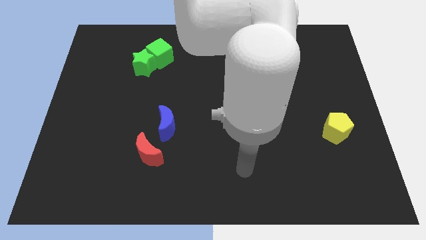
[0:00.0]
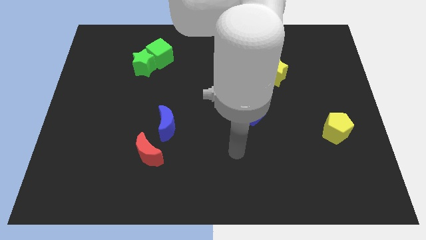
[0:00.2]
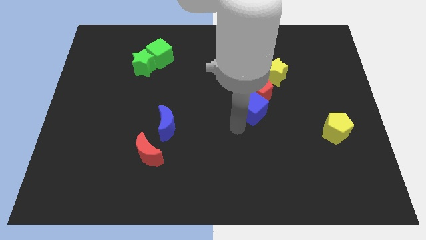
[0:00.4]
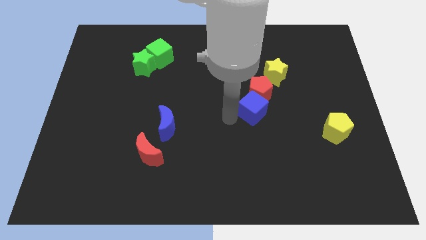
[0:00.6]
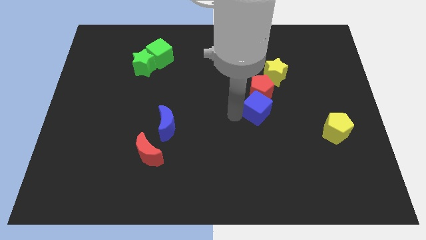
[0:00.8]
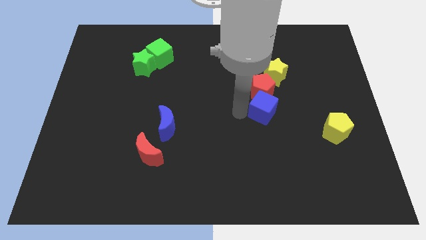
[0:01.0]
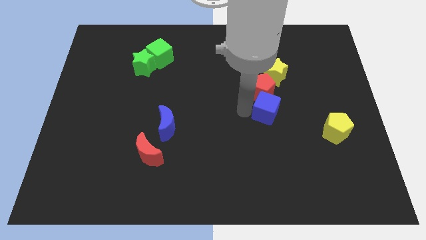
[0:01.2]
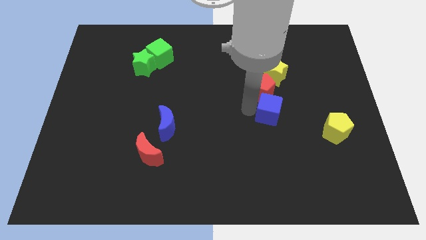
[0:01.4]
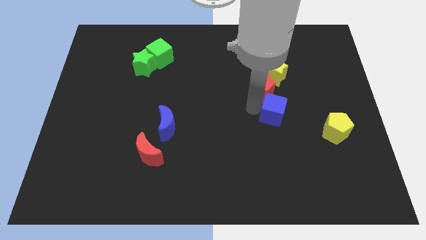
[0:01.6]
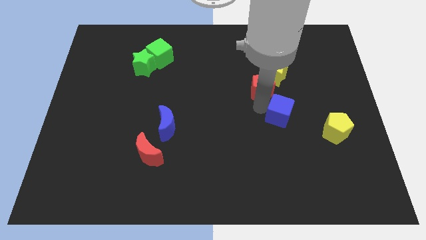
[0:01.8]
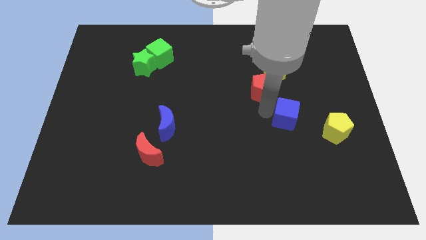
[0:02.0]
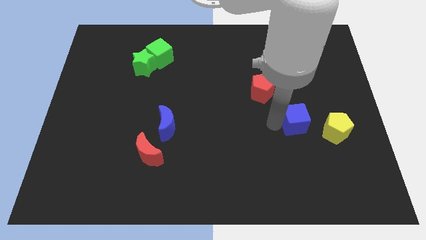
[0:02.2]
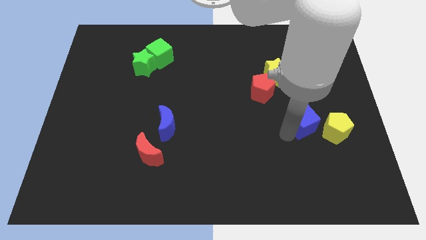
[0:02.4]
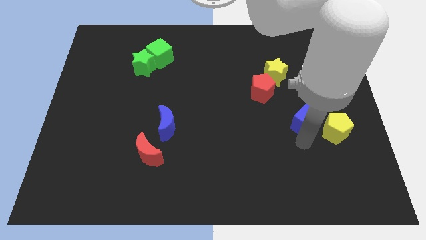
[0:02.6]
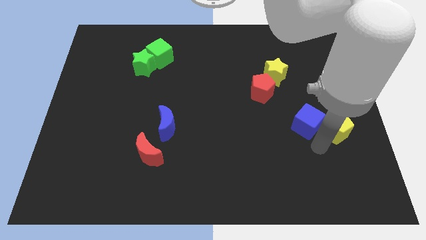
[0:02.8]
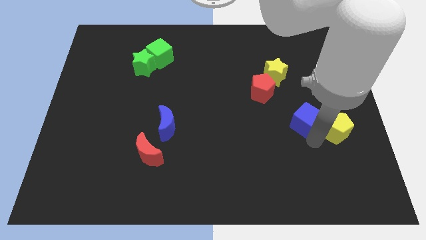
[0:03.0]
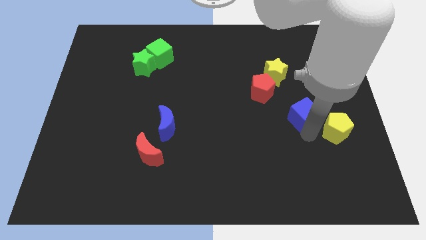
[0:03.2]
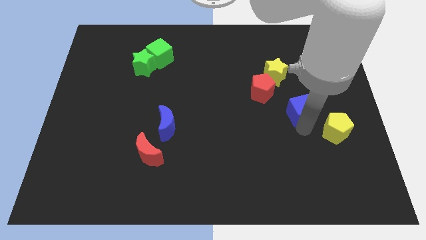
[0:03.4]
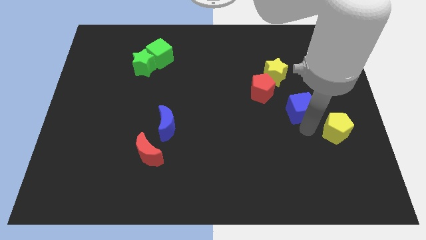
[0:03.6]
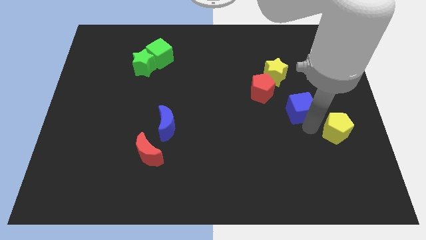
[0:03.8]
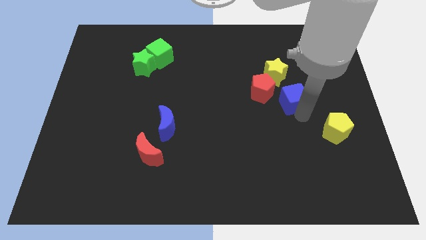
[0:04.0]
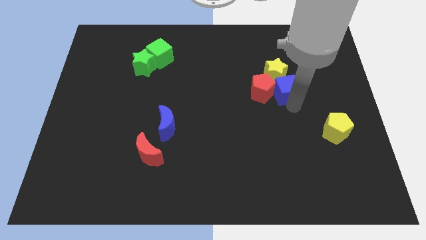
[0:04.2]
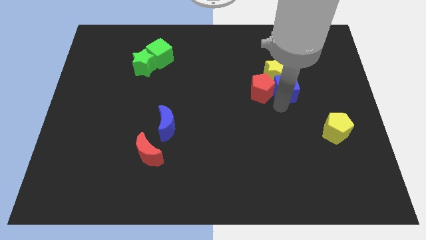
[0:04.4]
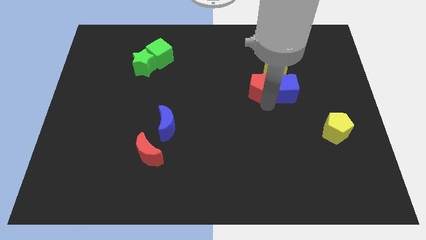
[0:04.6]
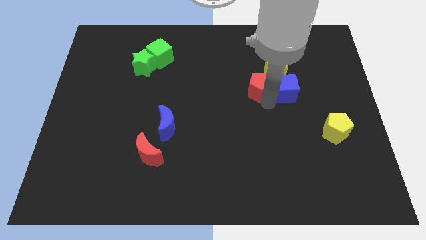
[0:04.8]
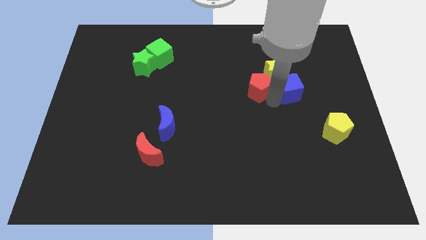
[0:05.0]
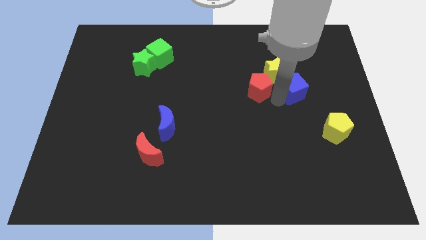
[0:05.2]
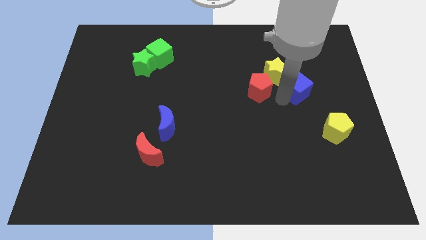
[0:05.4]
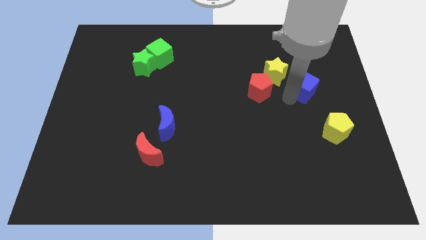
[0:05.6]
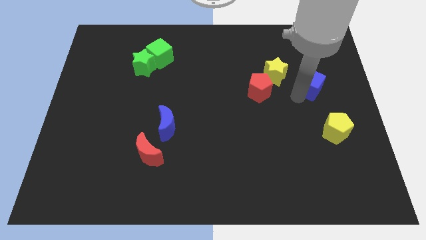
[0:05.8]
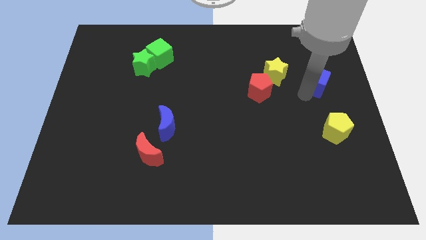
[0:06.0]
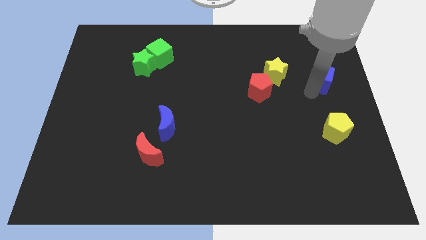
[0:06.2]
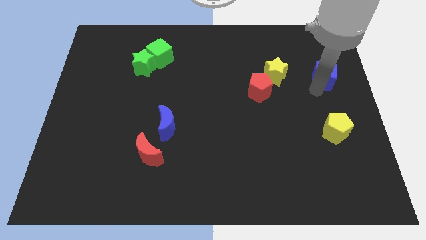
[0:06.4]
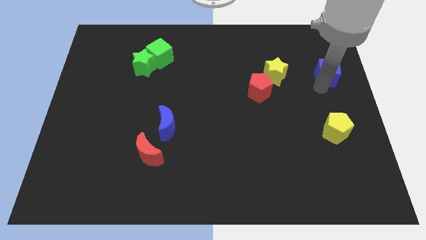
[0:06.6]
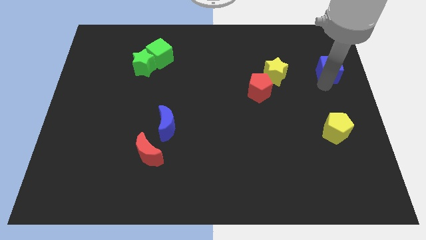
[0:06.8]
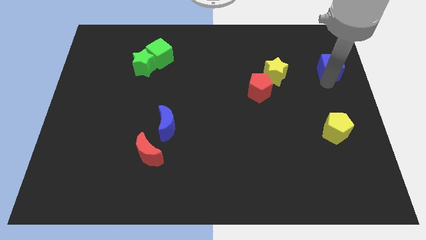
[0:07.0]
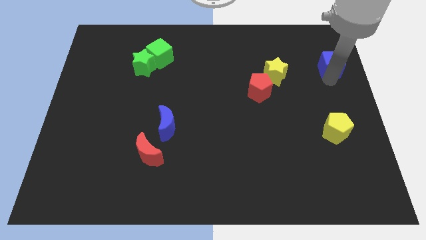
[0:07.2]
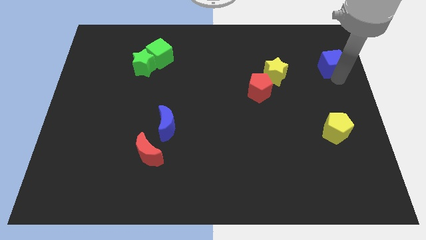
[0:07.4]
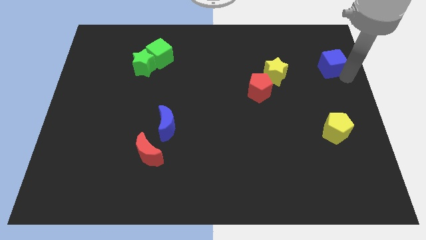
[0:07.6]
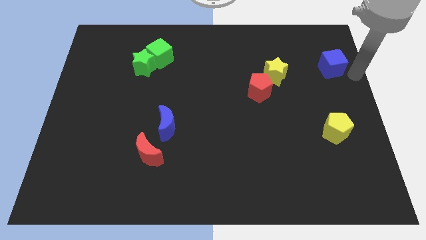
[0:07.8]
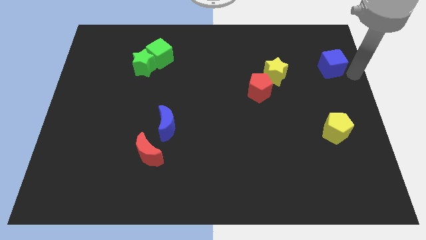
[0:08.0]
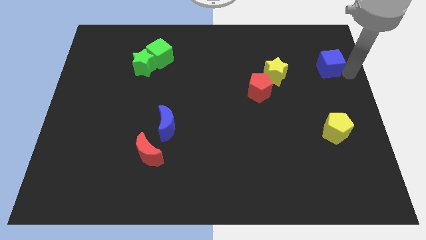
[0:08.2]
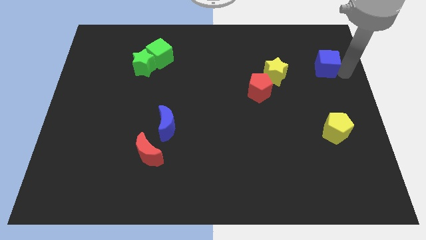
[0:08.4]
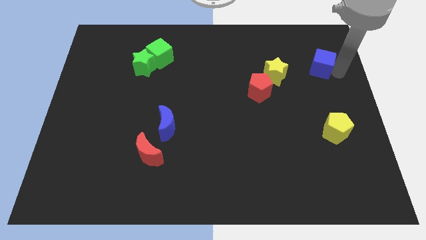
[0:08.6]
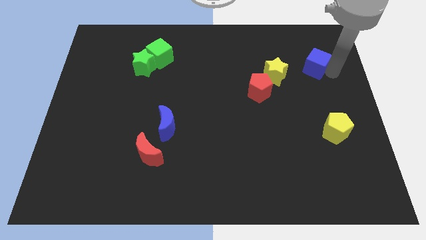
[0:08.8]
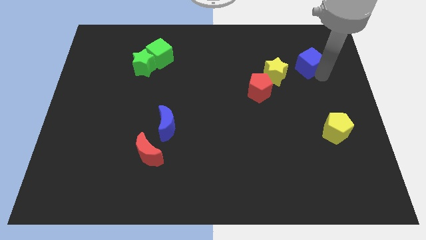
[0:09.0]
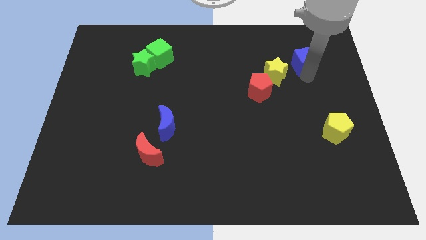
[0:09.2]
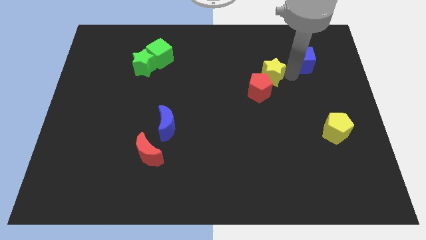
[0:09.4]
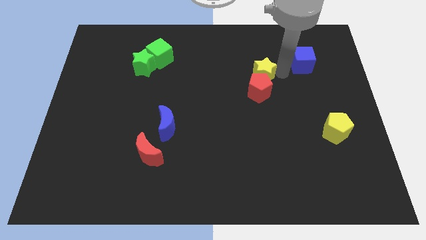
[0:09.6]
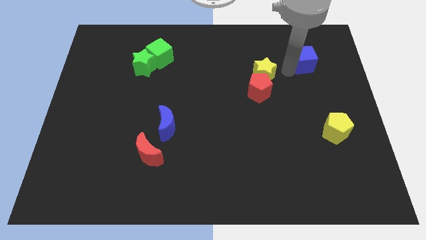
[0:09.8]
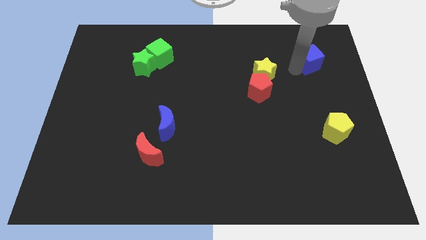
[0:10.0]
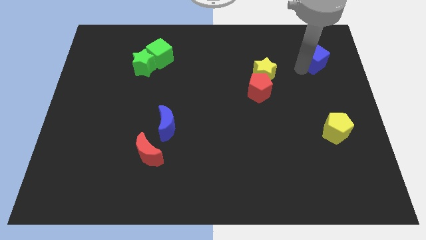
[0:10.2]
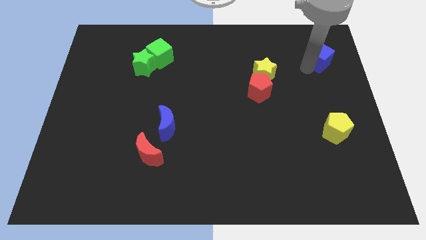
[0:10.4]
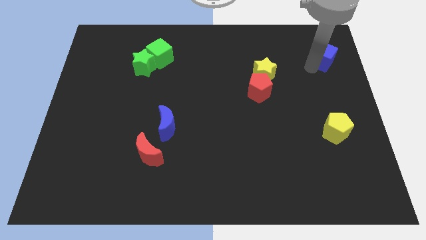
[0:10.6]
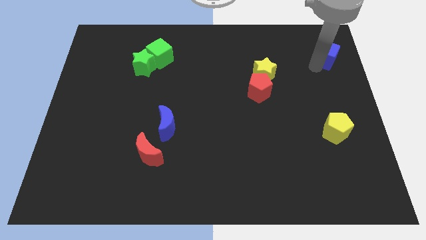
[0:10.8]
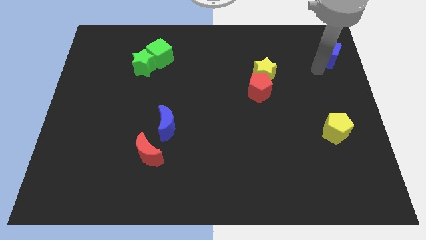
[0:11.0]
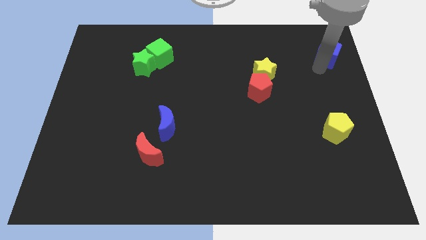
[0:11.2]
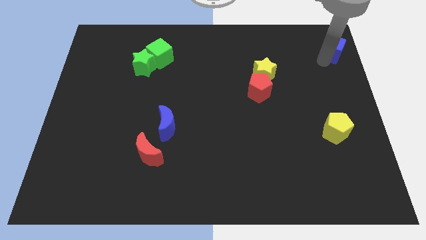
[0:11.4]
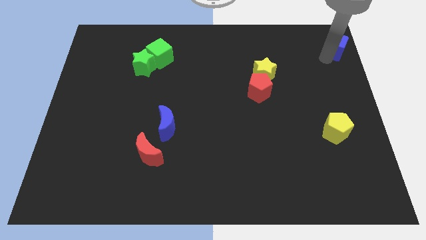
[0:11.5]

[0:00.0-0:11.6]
put the blue cube to the top right of the board

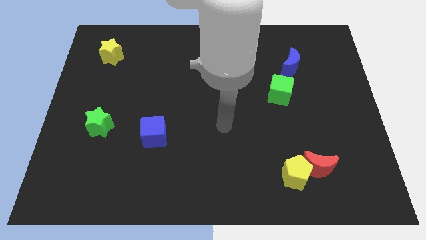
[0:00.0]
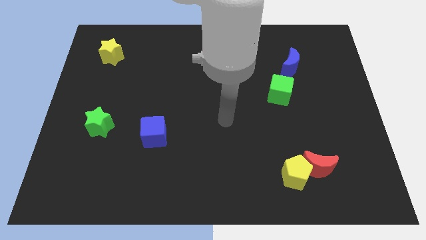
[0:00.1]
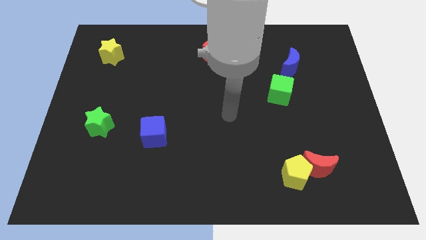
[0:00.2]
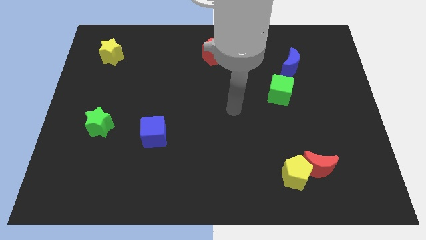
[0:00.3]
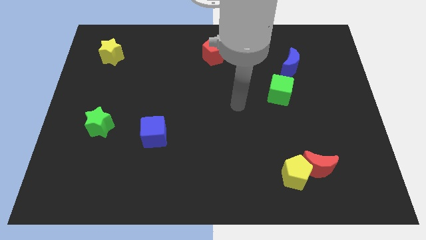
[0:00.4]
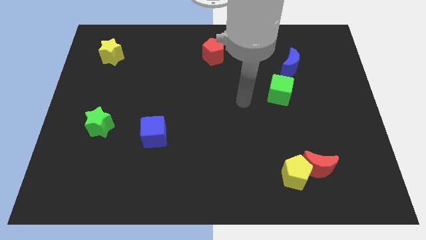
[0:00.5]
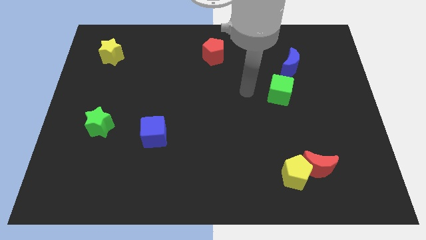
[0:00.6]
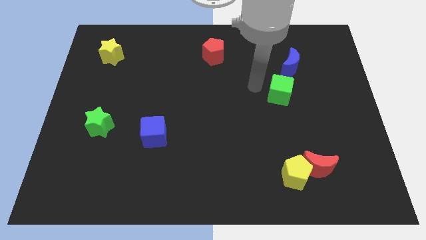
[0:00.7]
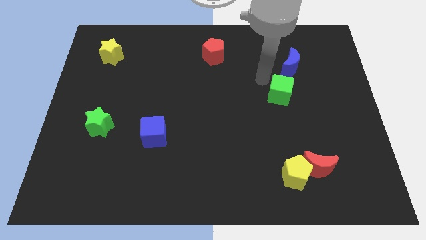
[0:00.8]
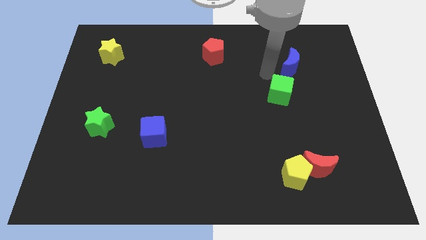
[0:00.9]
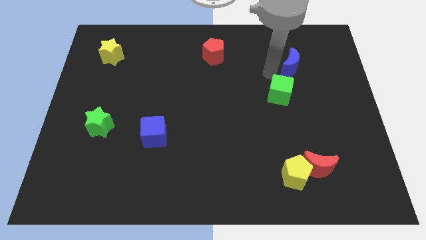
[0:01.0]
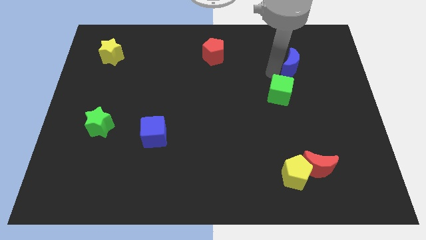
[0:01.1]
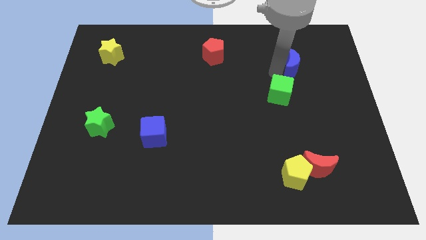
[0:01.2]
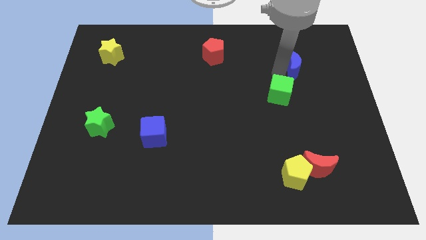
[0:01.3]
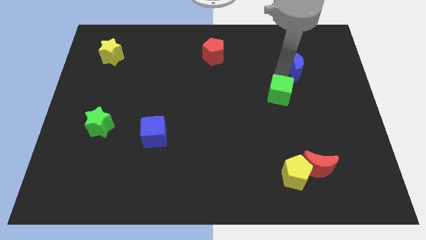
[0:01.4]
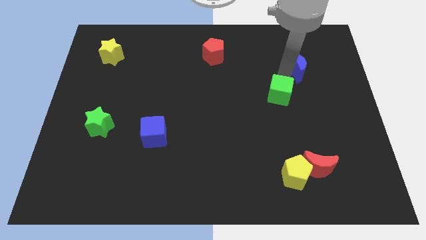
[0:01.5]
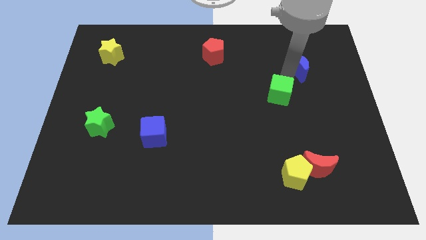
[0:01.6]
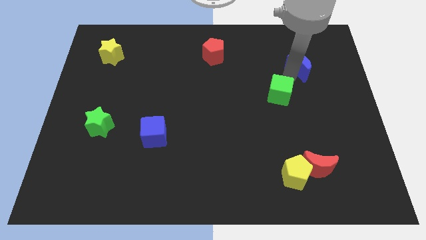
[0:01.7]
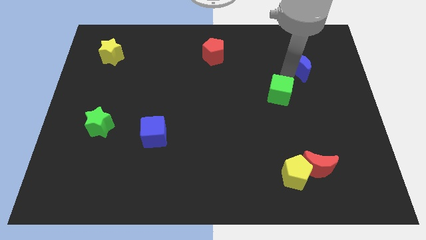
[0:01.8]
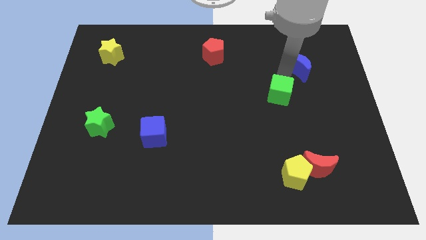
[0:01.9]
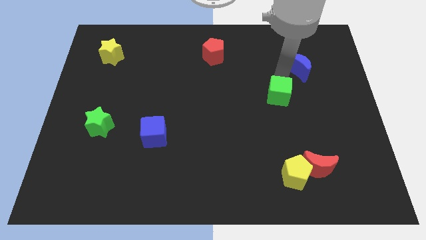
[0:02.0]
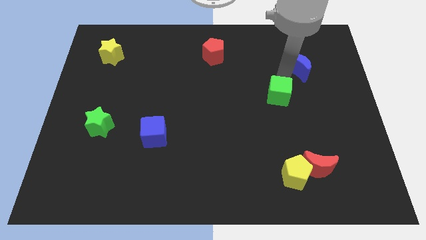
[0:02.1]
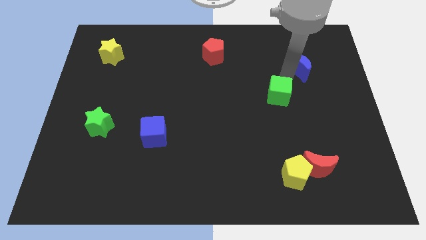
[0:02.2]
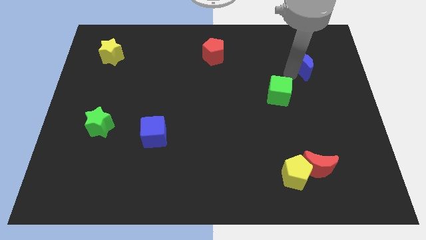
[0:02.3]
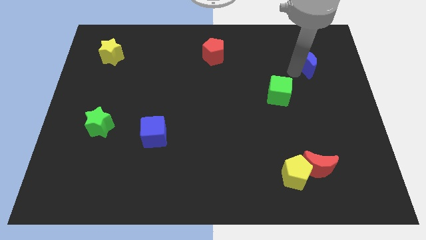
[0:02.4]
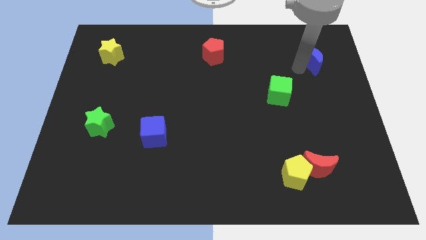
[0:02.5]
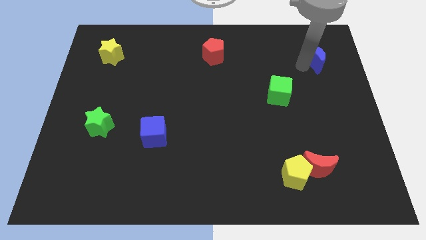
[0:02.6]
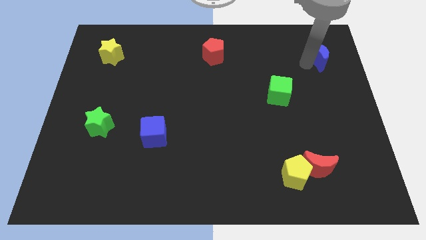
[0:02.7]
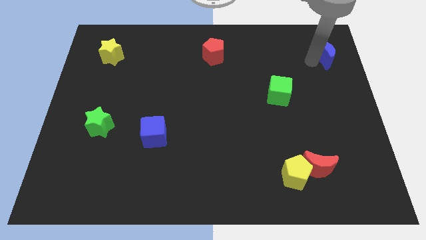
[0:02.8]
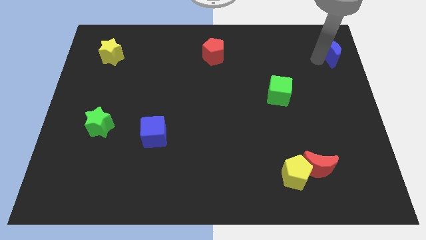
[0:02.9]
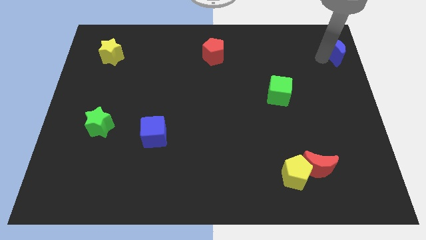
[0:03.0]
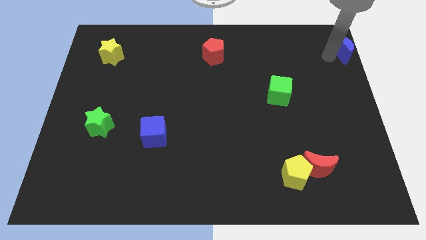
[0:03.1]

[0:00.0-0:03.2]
move the blue moon to the top right corner
